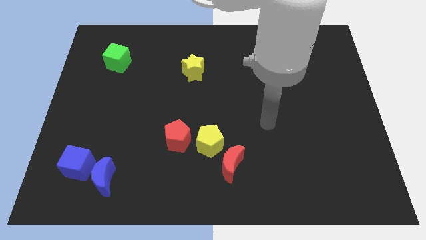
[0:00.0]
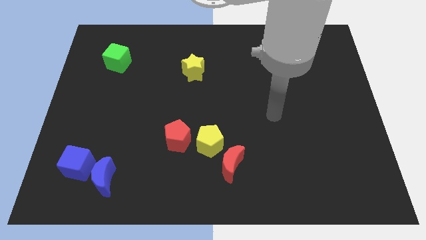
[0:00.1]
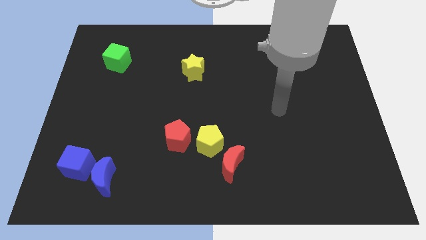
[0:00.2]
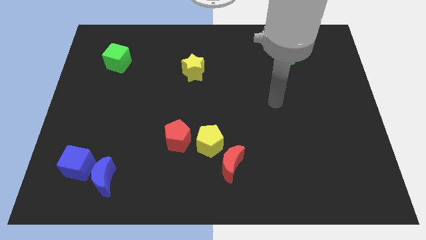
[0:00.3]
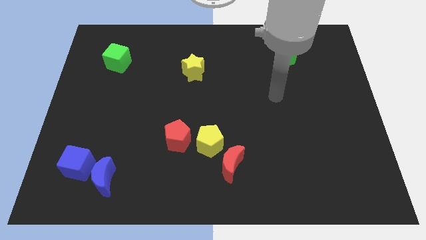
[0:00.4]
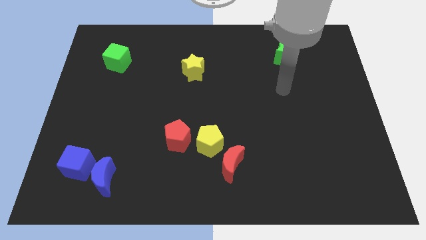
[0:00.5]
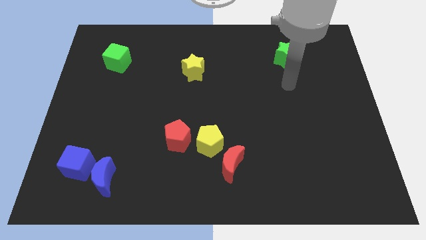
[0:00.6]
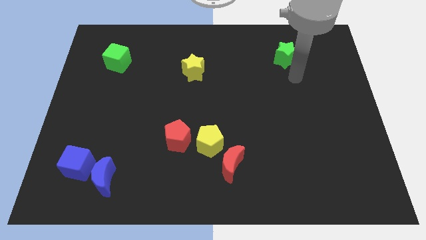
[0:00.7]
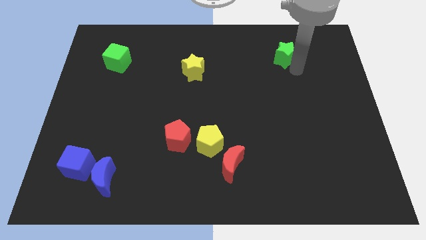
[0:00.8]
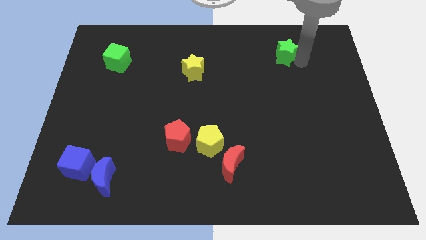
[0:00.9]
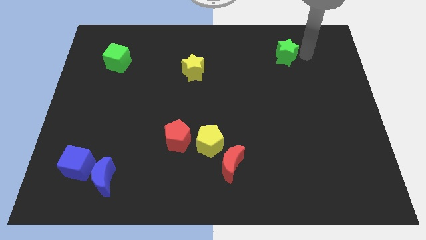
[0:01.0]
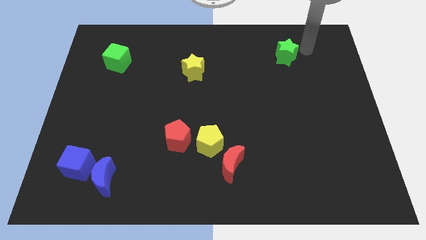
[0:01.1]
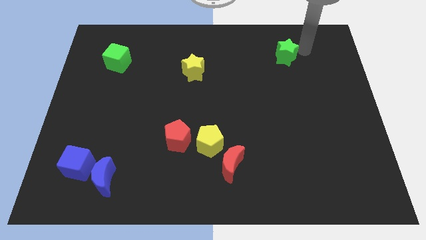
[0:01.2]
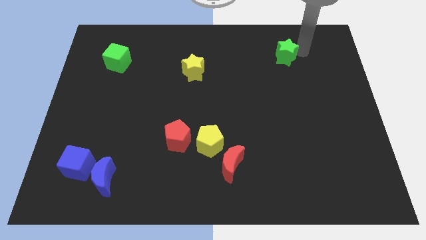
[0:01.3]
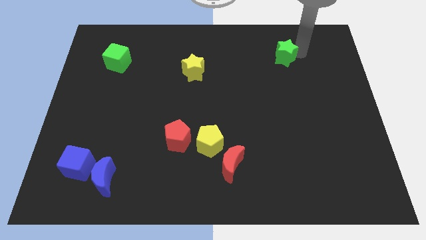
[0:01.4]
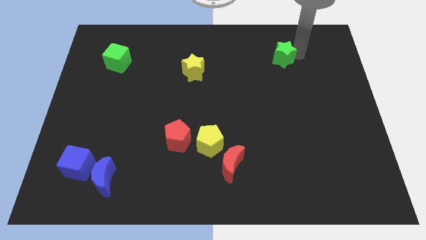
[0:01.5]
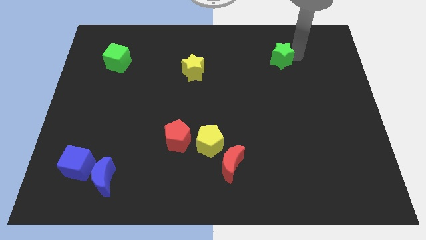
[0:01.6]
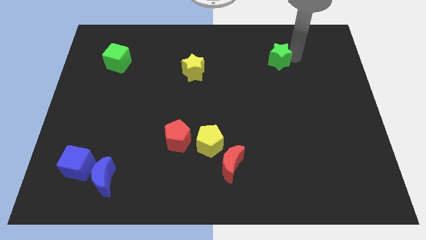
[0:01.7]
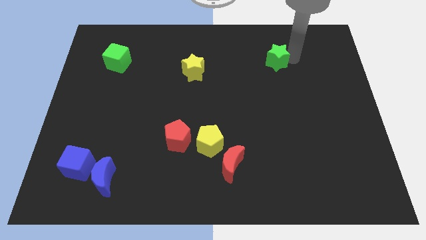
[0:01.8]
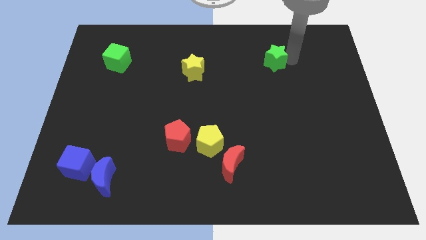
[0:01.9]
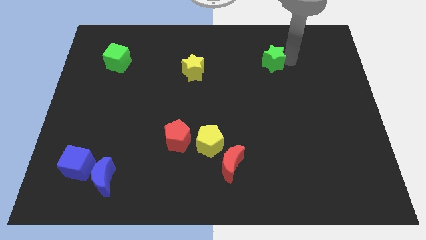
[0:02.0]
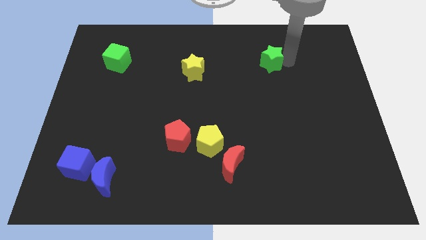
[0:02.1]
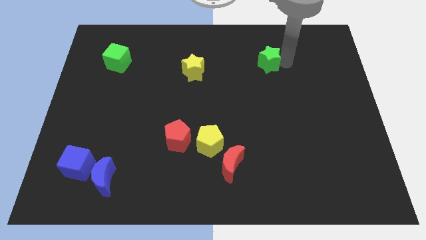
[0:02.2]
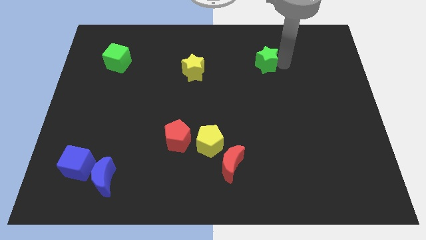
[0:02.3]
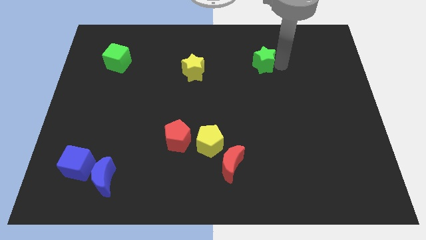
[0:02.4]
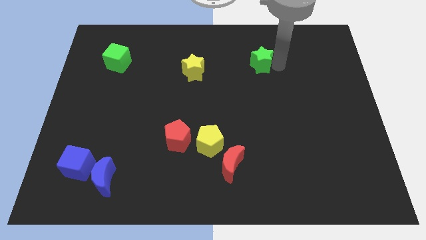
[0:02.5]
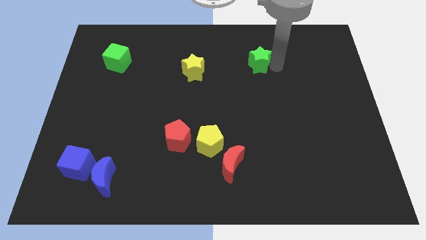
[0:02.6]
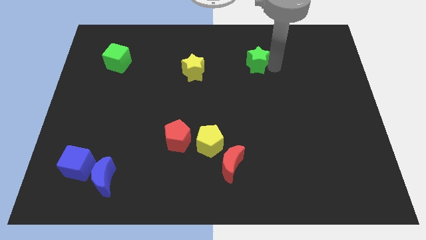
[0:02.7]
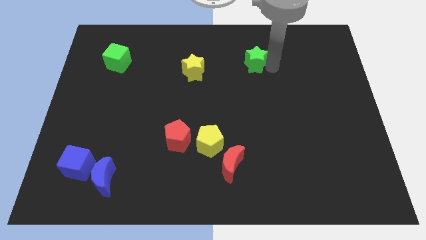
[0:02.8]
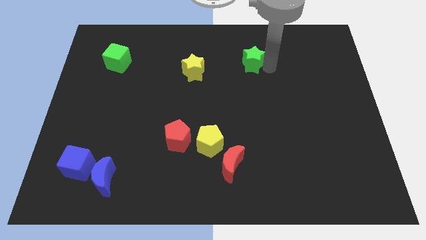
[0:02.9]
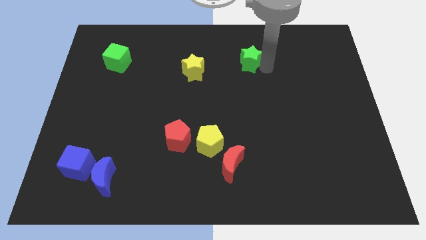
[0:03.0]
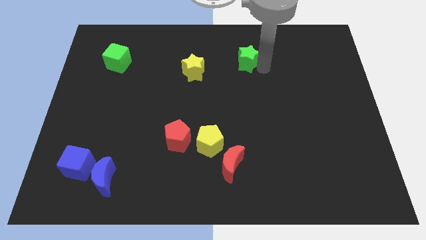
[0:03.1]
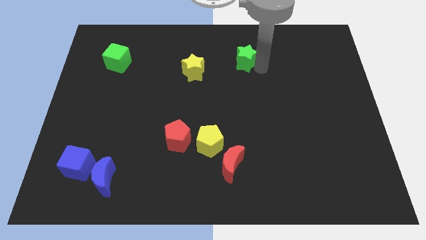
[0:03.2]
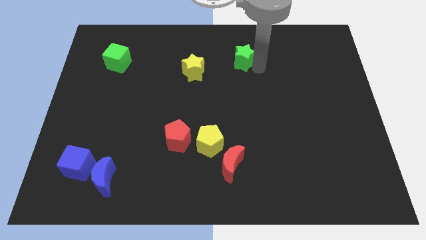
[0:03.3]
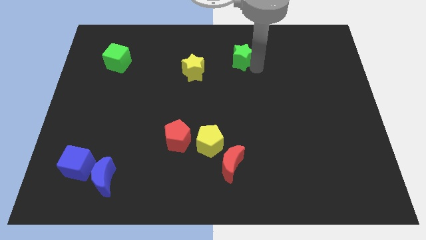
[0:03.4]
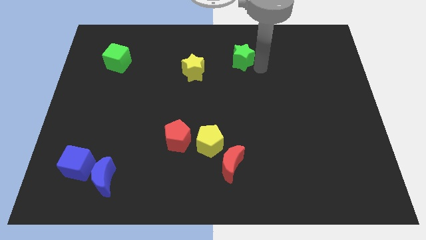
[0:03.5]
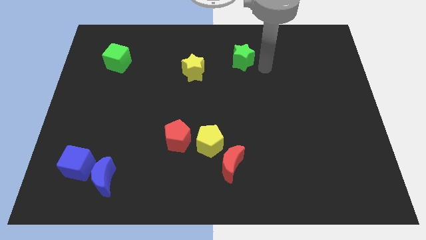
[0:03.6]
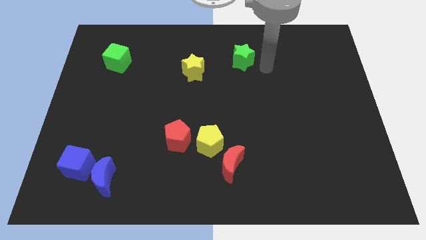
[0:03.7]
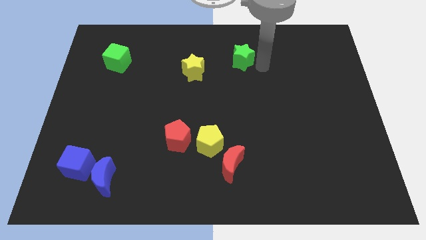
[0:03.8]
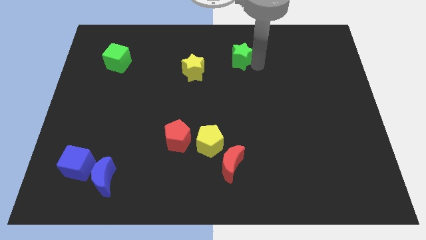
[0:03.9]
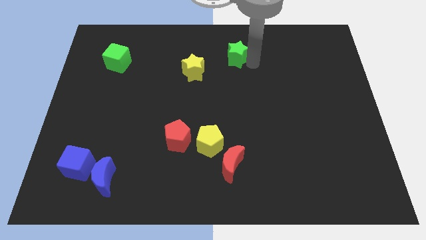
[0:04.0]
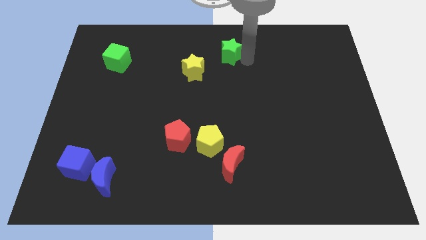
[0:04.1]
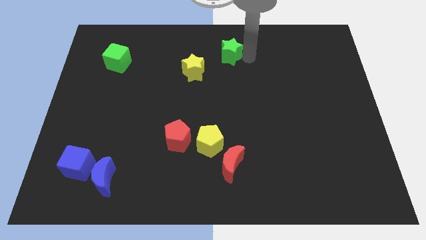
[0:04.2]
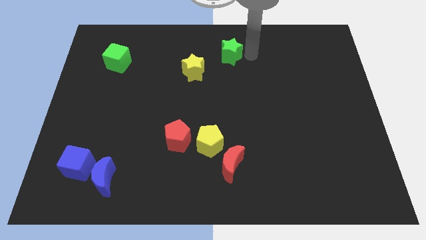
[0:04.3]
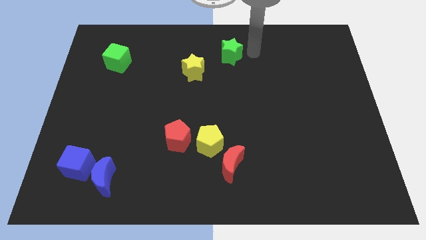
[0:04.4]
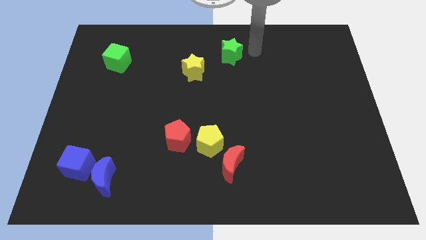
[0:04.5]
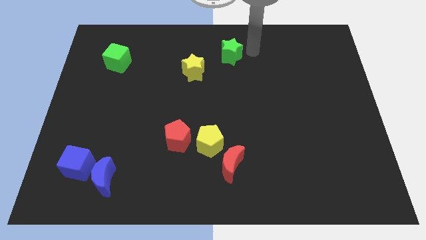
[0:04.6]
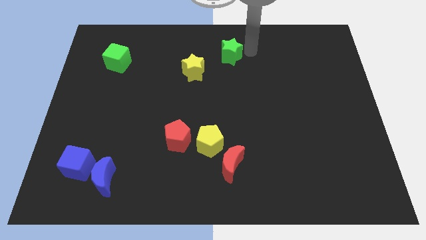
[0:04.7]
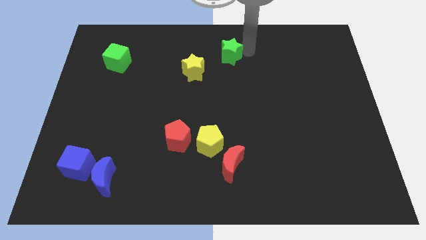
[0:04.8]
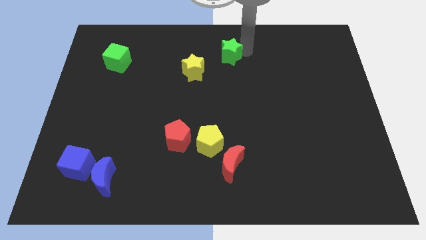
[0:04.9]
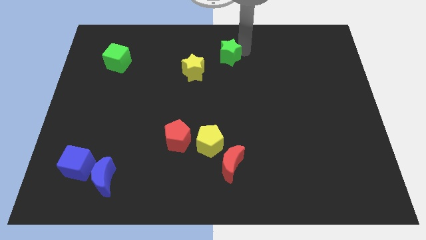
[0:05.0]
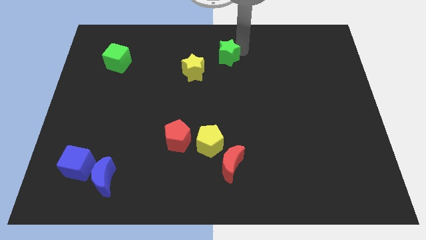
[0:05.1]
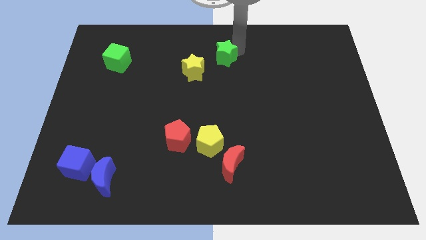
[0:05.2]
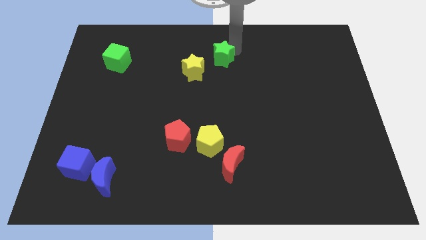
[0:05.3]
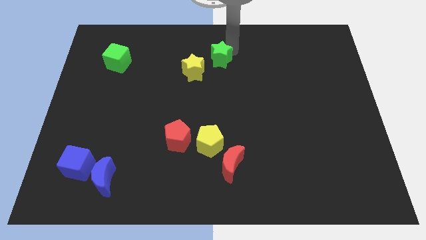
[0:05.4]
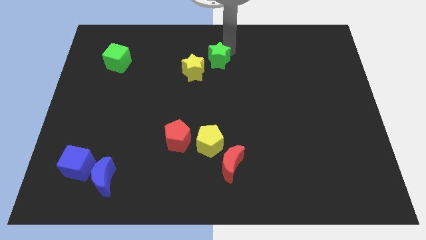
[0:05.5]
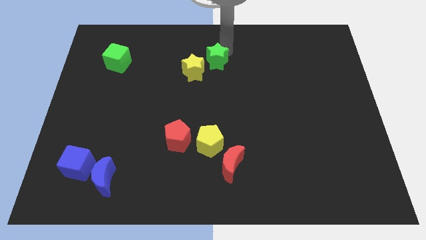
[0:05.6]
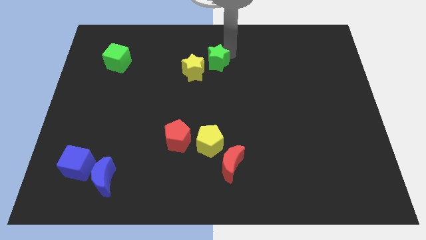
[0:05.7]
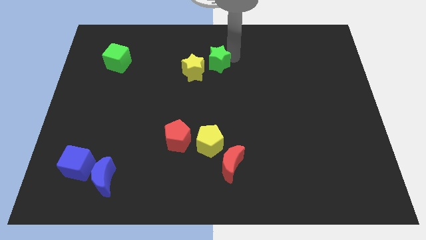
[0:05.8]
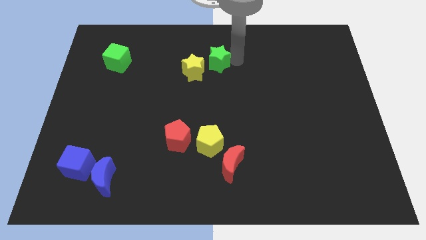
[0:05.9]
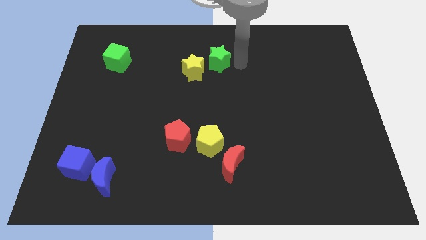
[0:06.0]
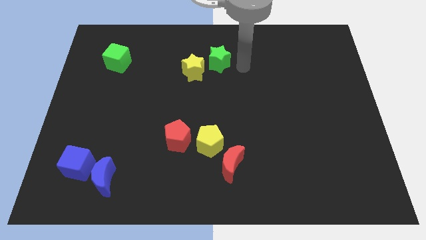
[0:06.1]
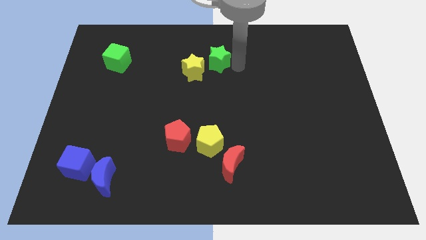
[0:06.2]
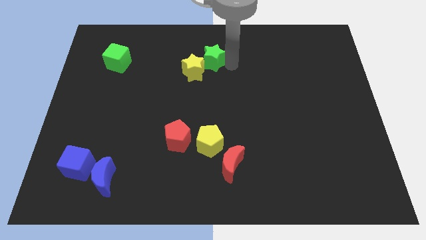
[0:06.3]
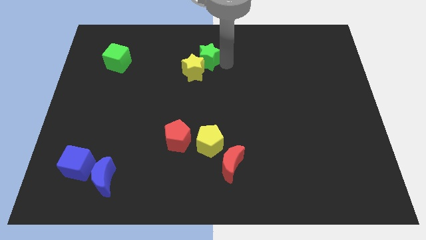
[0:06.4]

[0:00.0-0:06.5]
move the green star left

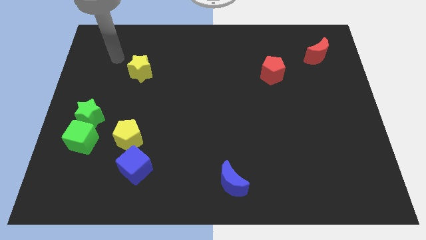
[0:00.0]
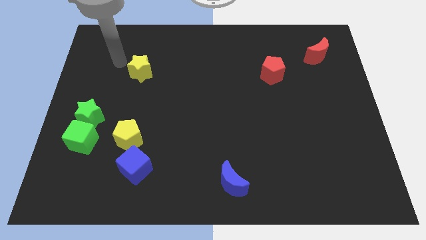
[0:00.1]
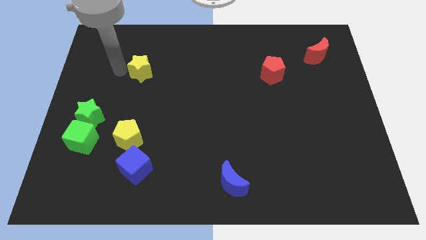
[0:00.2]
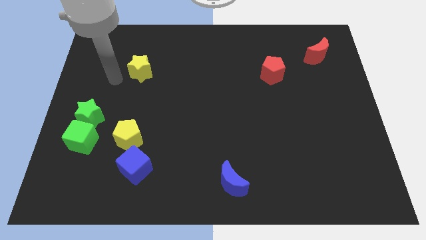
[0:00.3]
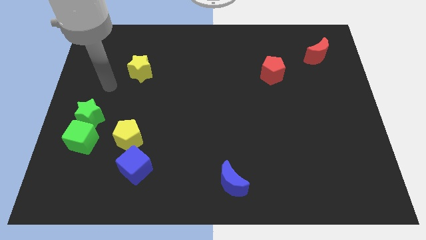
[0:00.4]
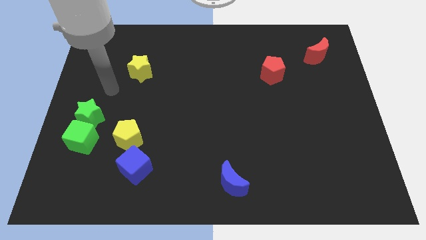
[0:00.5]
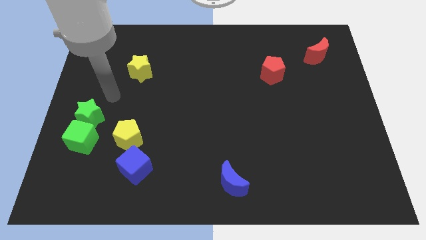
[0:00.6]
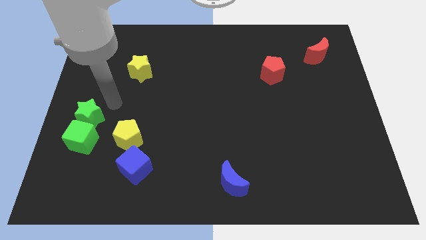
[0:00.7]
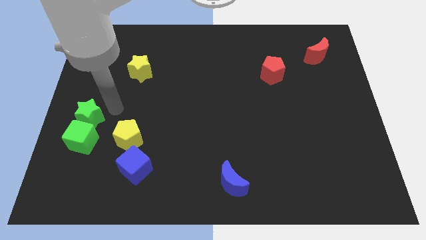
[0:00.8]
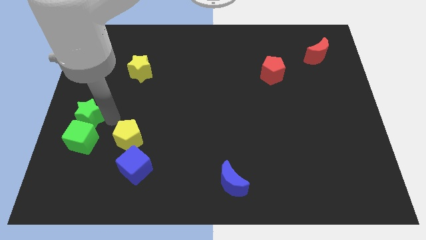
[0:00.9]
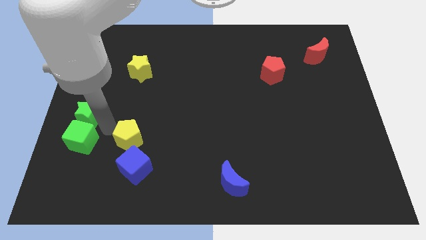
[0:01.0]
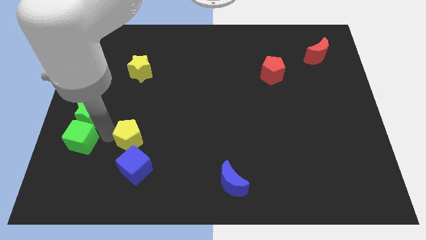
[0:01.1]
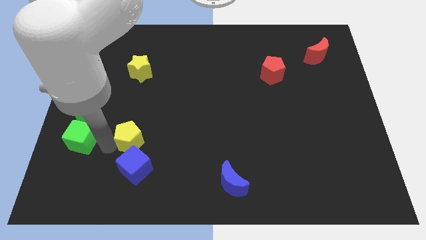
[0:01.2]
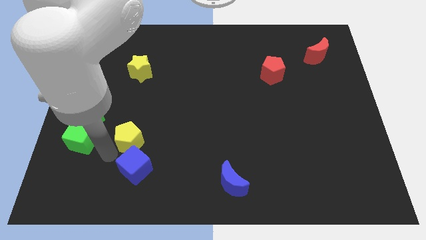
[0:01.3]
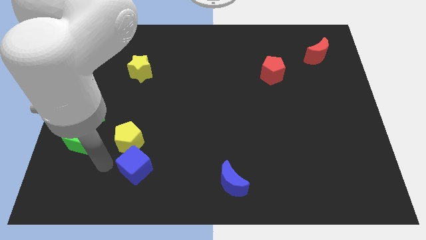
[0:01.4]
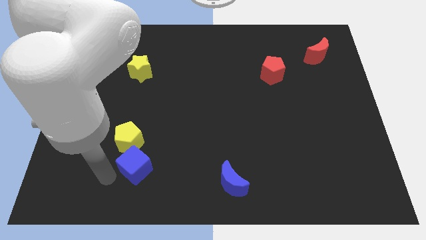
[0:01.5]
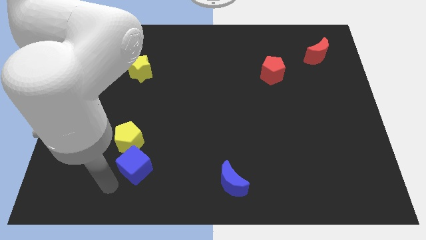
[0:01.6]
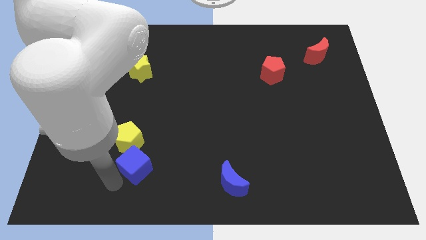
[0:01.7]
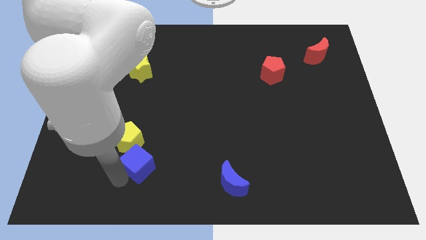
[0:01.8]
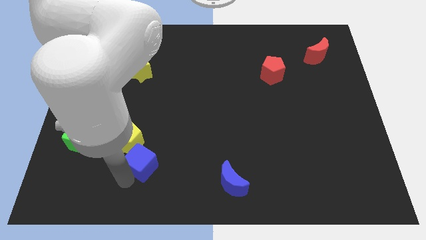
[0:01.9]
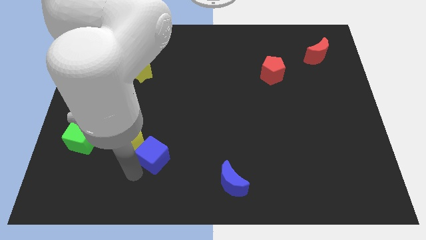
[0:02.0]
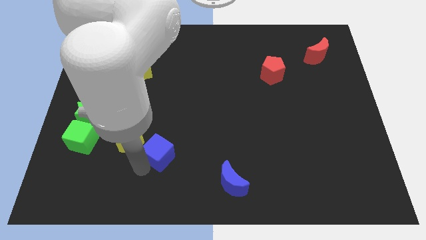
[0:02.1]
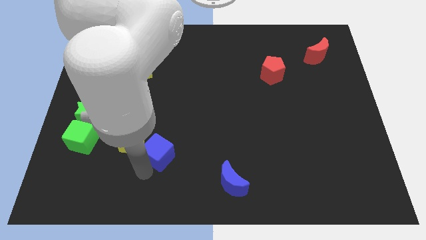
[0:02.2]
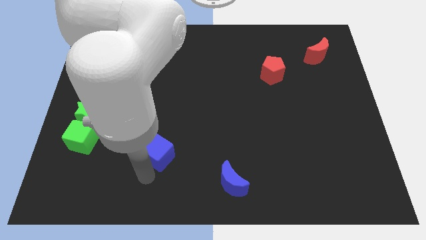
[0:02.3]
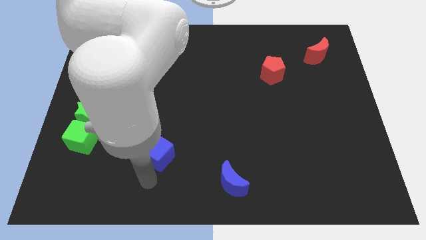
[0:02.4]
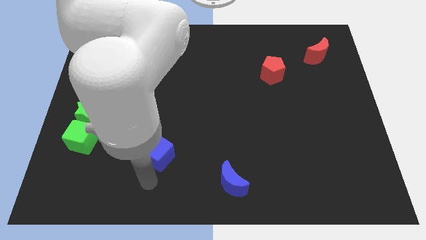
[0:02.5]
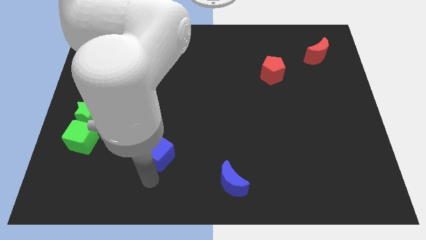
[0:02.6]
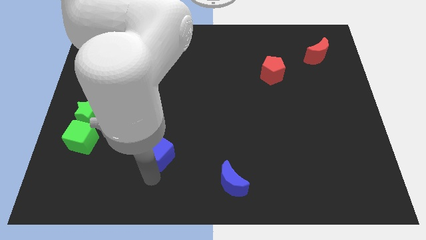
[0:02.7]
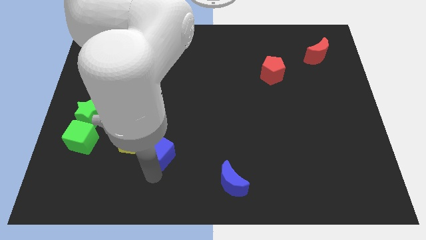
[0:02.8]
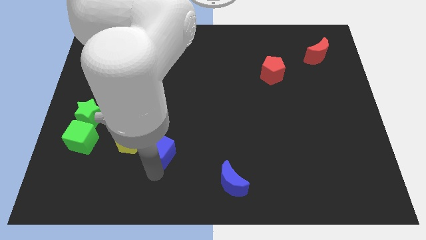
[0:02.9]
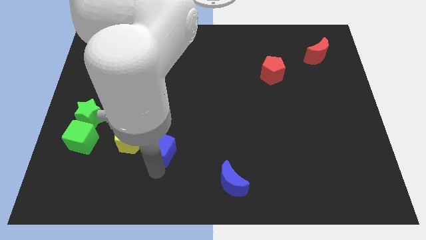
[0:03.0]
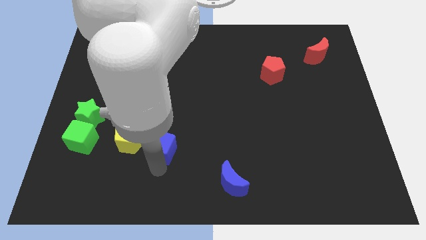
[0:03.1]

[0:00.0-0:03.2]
slightly slide the blue cube upwards and right diagonally
